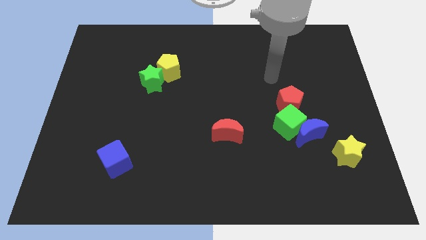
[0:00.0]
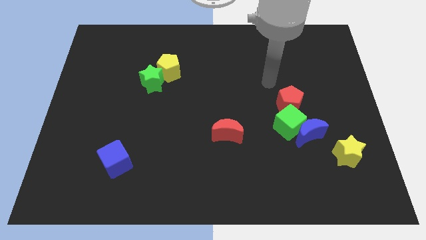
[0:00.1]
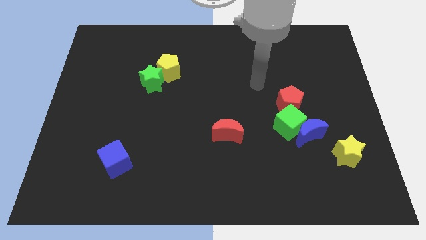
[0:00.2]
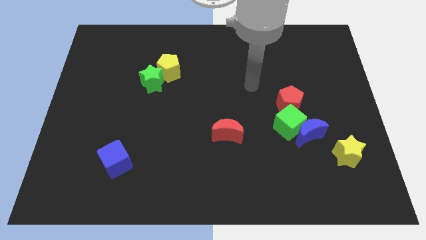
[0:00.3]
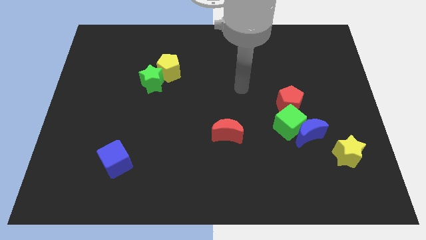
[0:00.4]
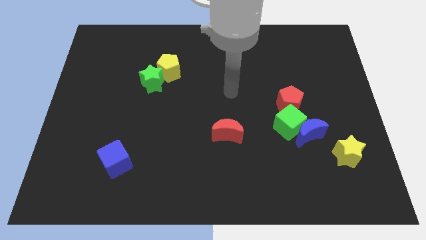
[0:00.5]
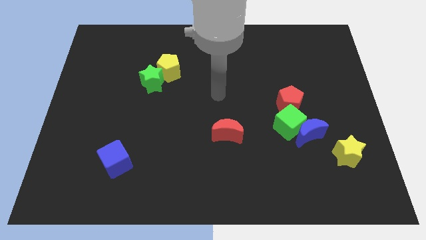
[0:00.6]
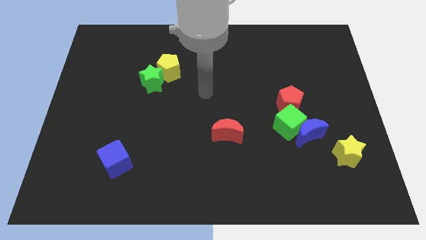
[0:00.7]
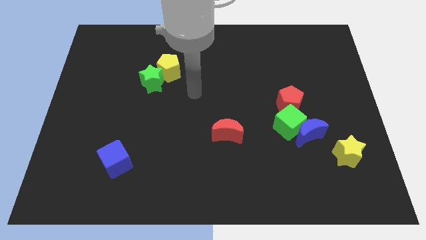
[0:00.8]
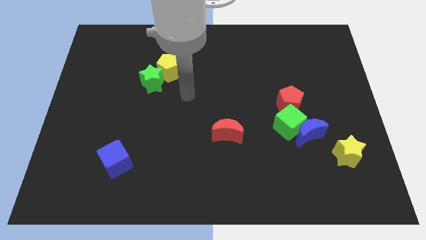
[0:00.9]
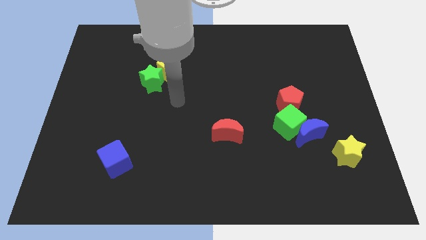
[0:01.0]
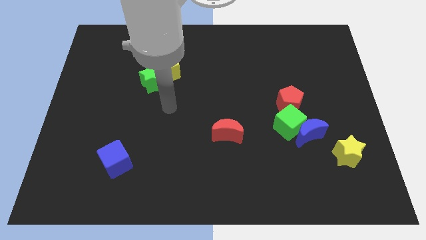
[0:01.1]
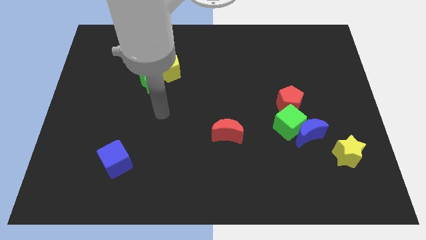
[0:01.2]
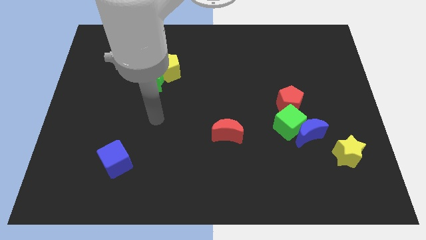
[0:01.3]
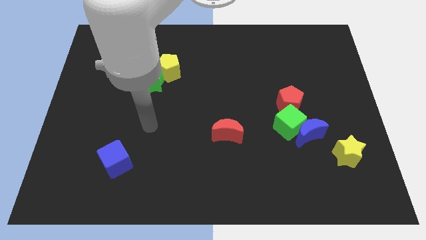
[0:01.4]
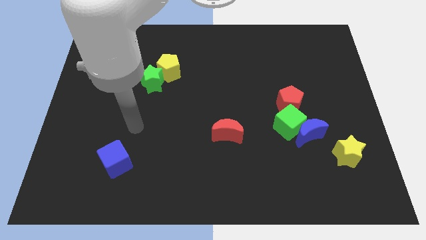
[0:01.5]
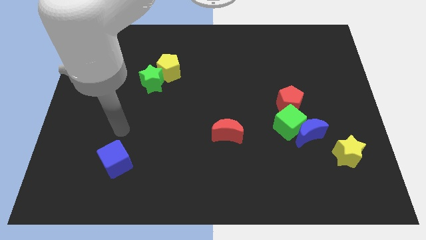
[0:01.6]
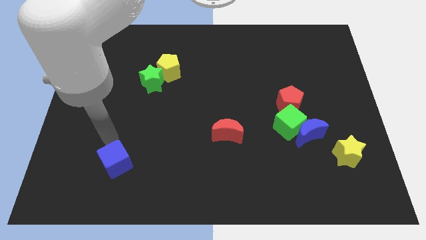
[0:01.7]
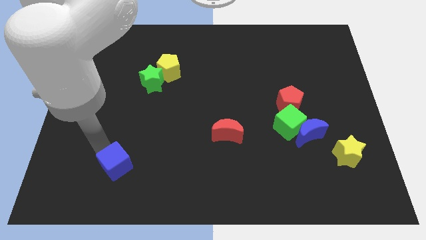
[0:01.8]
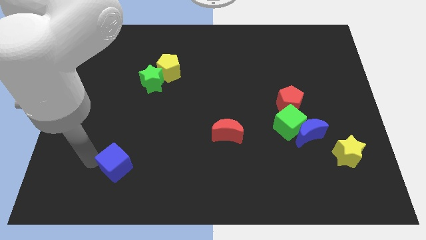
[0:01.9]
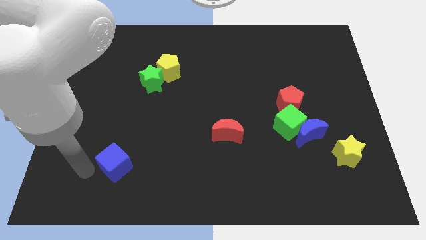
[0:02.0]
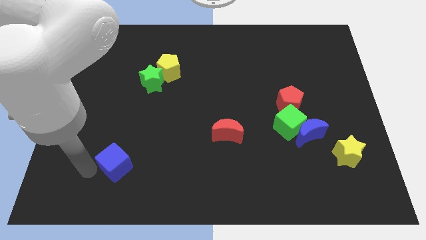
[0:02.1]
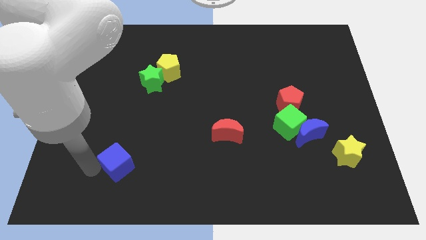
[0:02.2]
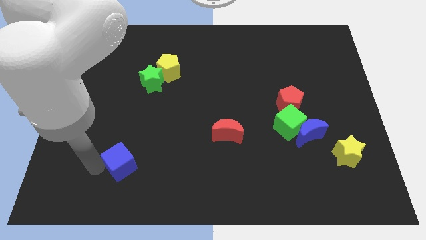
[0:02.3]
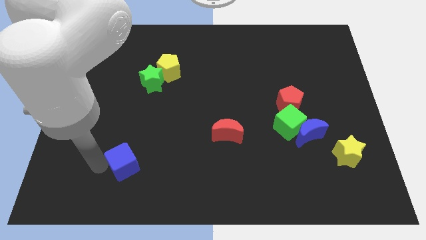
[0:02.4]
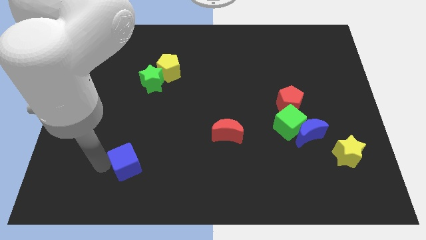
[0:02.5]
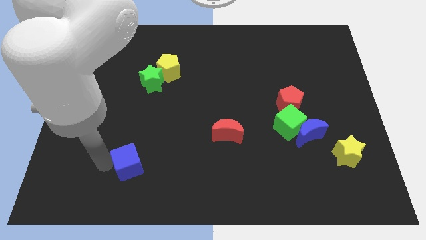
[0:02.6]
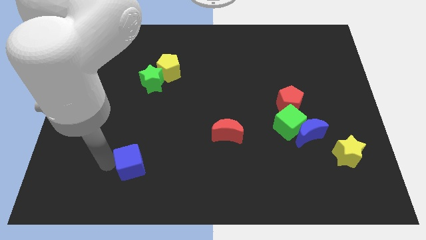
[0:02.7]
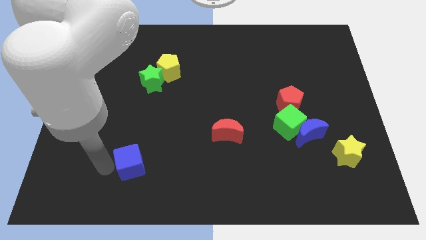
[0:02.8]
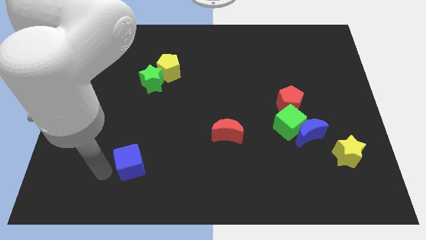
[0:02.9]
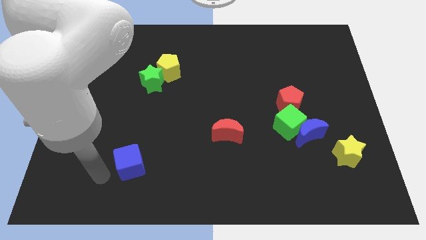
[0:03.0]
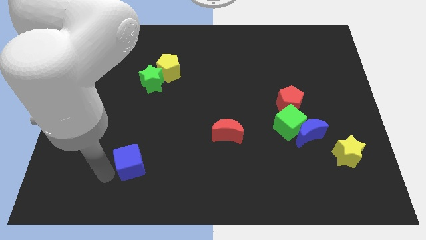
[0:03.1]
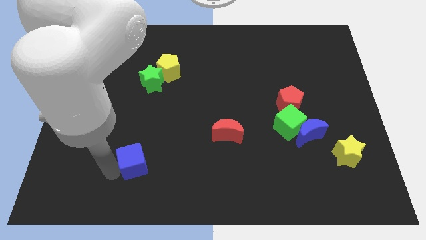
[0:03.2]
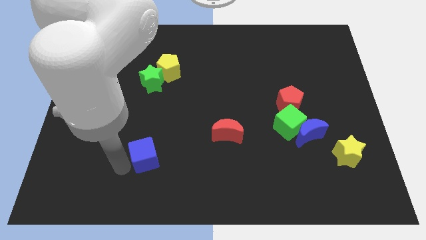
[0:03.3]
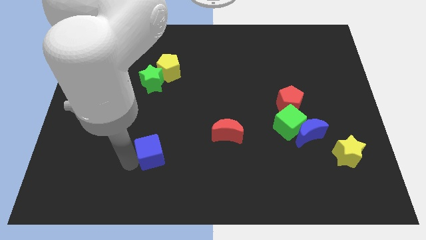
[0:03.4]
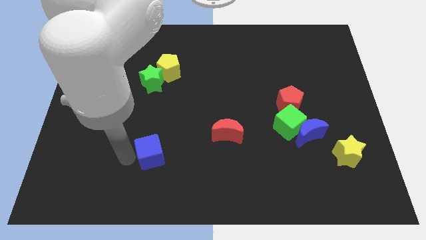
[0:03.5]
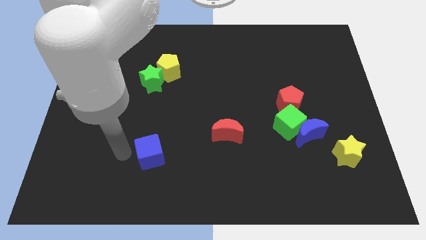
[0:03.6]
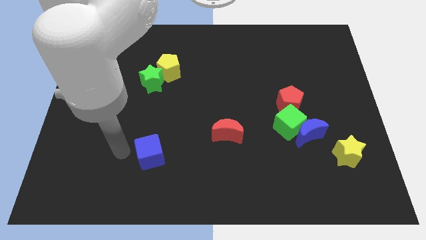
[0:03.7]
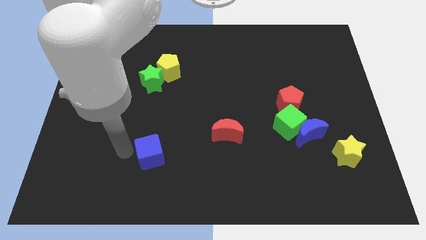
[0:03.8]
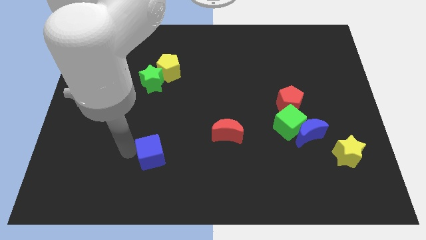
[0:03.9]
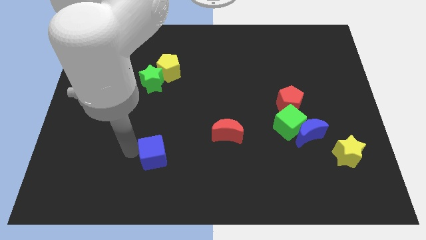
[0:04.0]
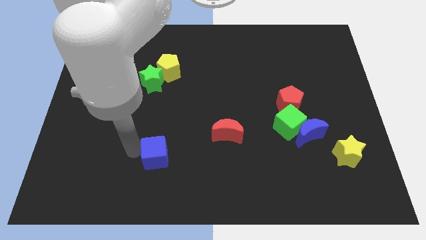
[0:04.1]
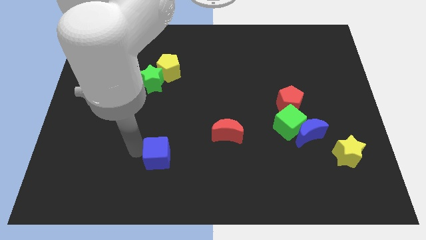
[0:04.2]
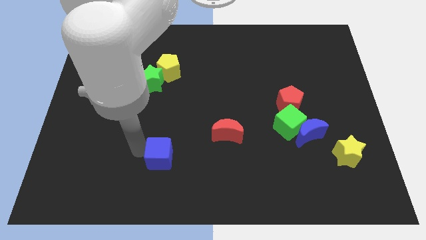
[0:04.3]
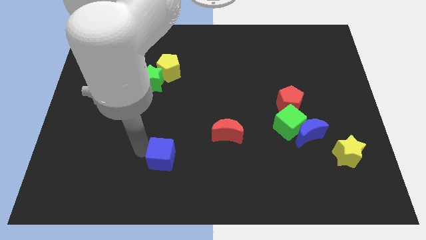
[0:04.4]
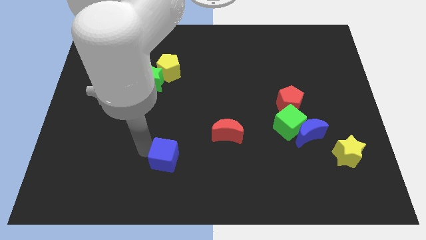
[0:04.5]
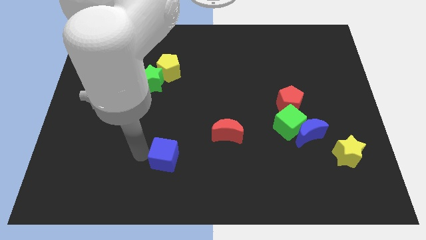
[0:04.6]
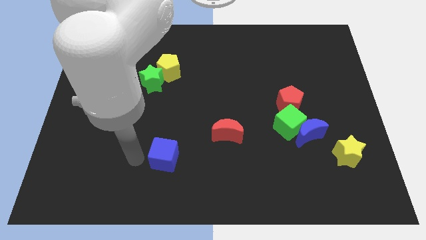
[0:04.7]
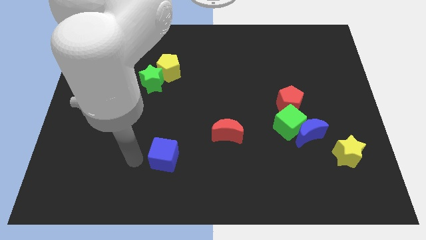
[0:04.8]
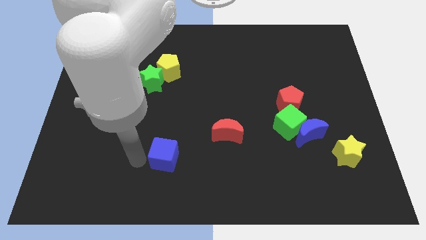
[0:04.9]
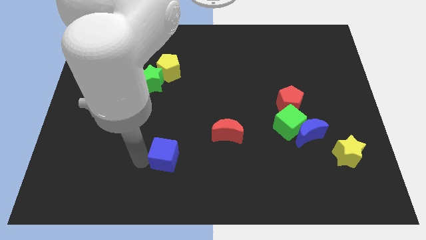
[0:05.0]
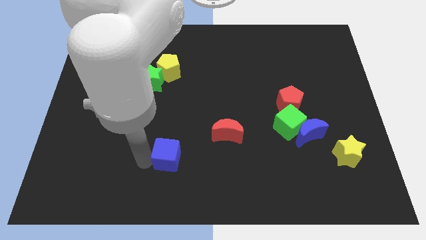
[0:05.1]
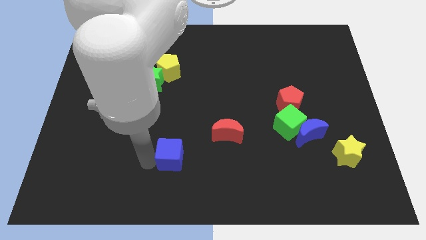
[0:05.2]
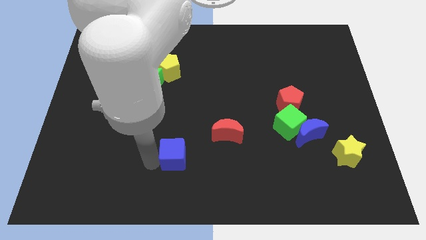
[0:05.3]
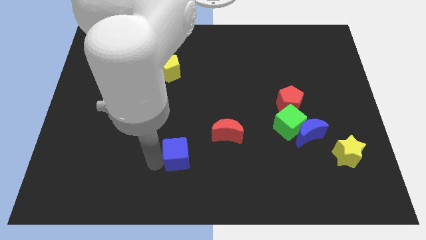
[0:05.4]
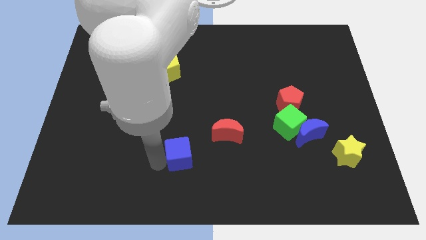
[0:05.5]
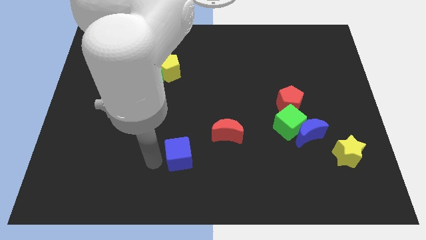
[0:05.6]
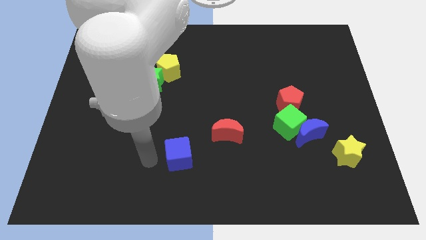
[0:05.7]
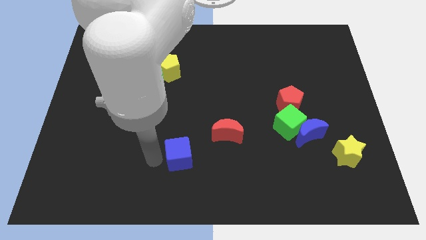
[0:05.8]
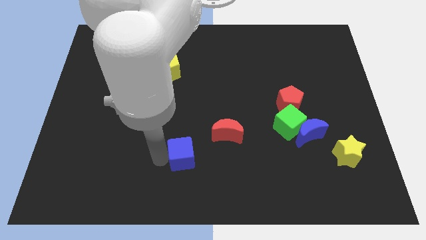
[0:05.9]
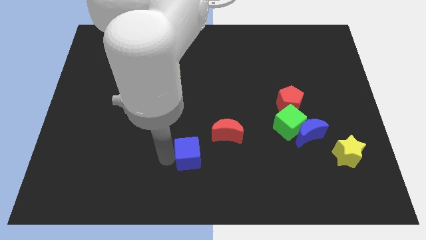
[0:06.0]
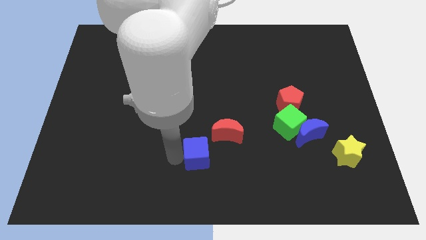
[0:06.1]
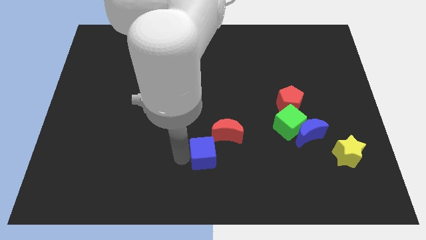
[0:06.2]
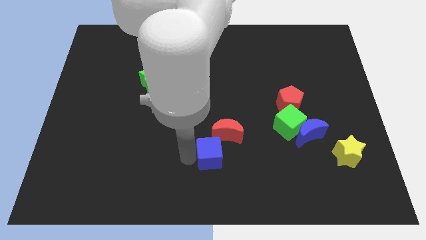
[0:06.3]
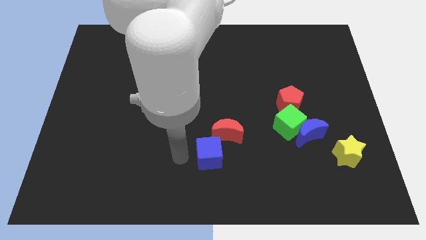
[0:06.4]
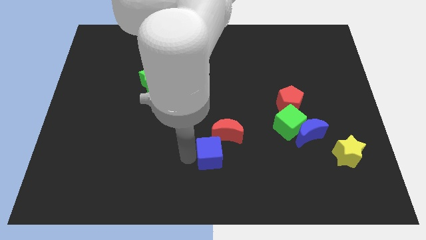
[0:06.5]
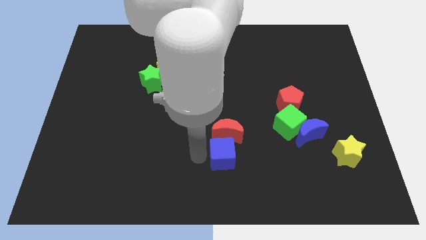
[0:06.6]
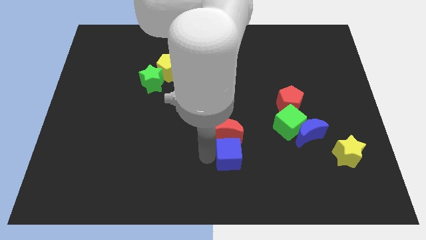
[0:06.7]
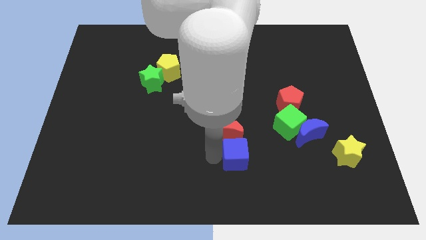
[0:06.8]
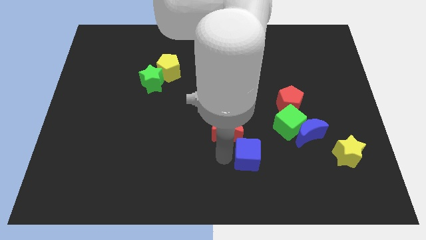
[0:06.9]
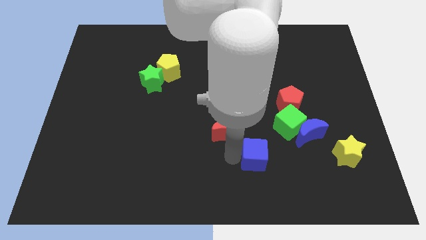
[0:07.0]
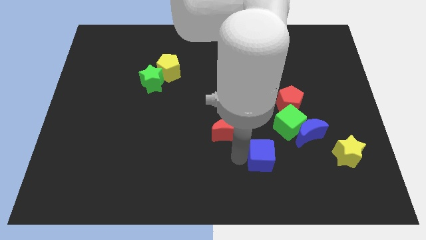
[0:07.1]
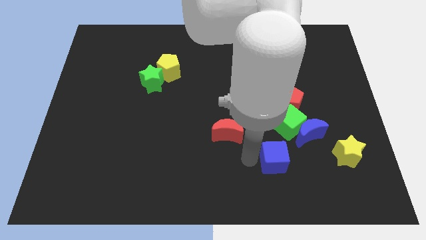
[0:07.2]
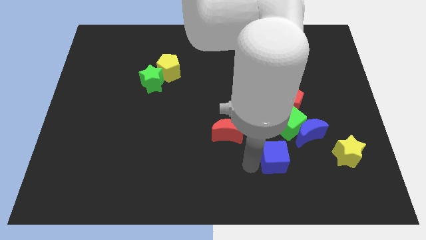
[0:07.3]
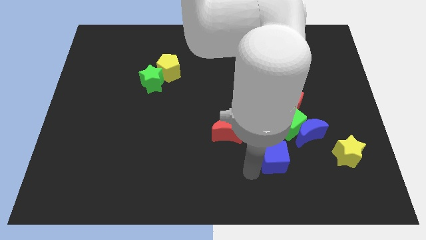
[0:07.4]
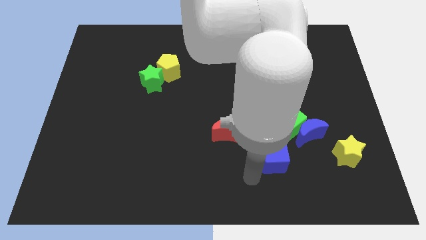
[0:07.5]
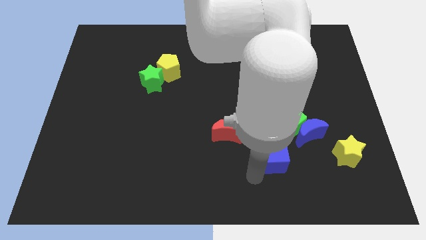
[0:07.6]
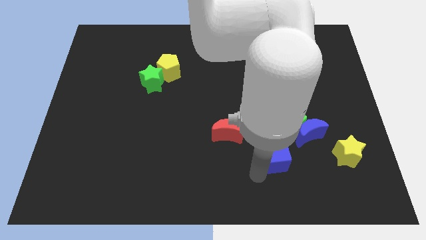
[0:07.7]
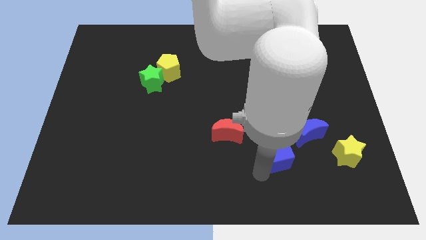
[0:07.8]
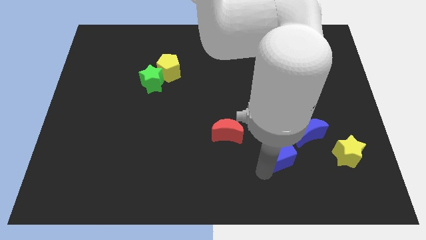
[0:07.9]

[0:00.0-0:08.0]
slide the blue cube to the bottom side of the red pentagon
